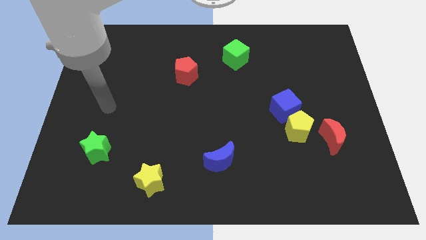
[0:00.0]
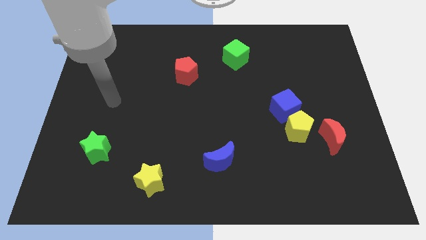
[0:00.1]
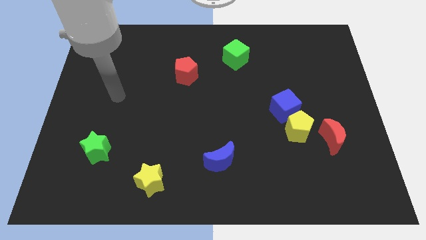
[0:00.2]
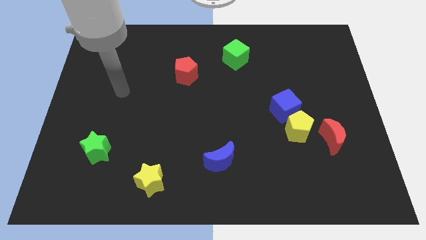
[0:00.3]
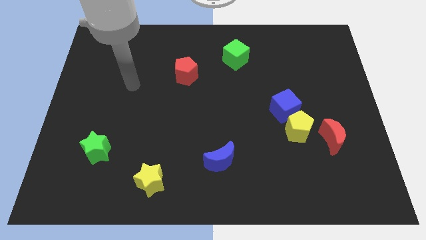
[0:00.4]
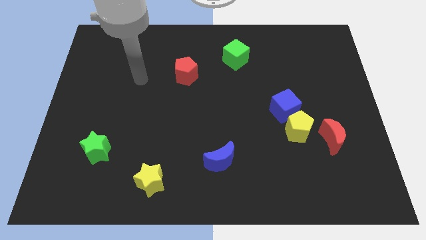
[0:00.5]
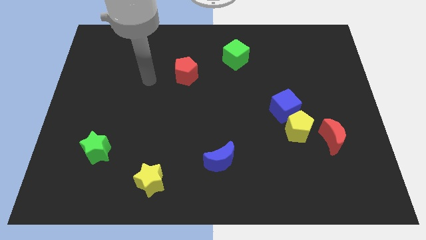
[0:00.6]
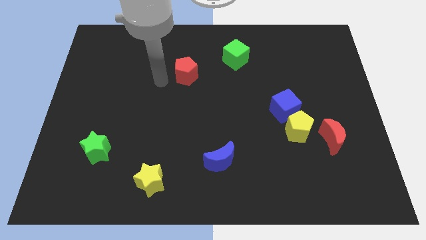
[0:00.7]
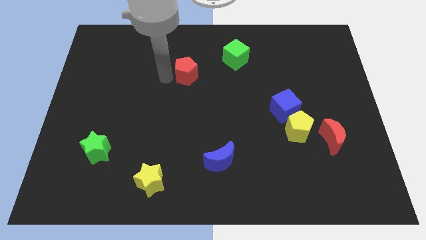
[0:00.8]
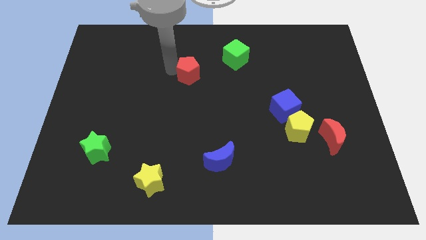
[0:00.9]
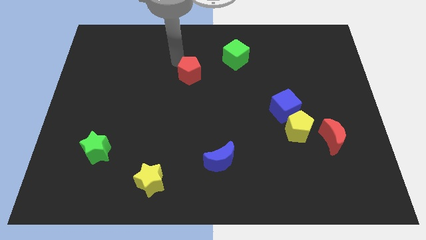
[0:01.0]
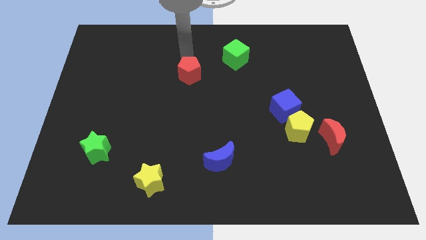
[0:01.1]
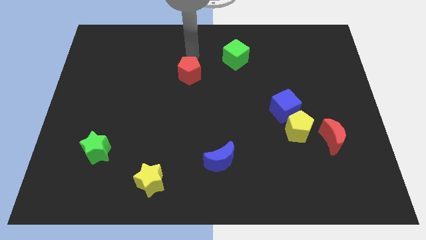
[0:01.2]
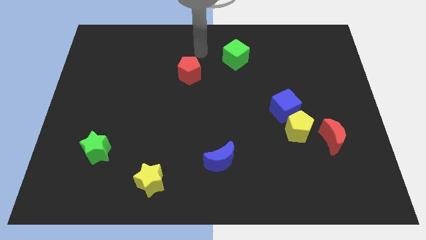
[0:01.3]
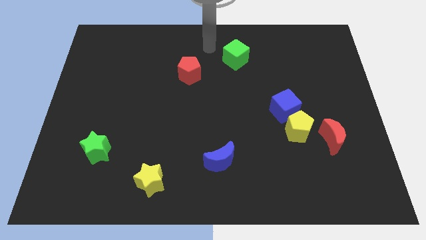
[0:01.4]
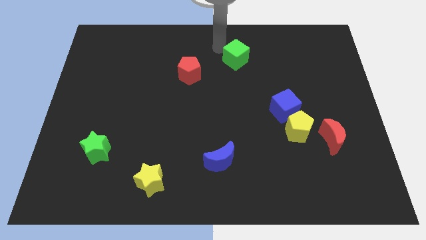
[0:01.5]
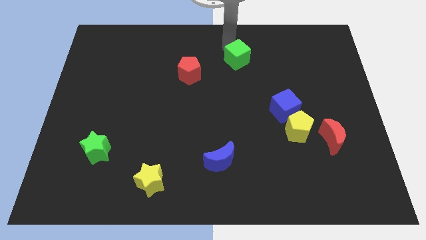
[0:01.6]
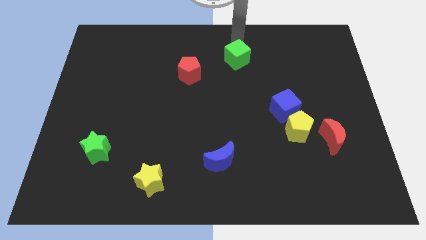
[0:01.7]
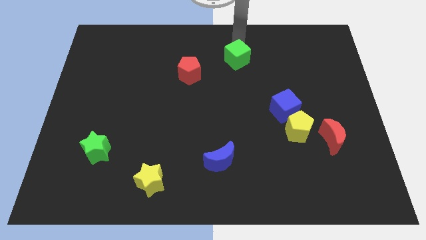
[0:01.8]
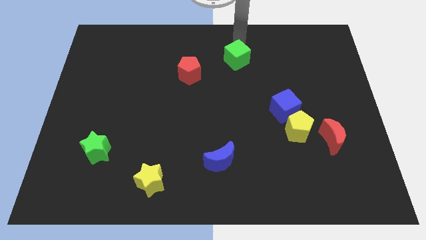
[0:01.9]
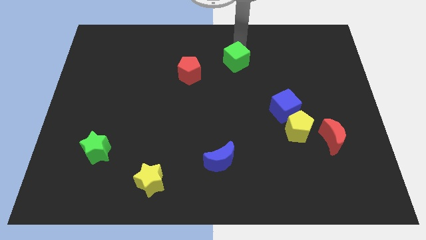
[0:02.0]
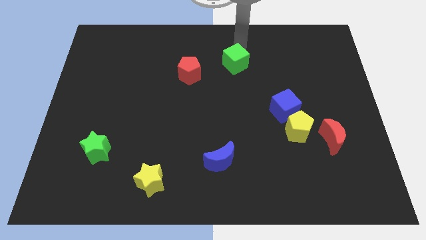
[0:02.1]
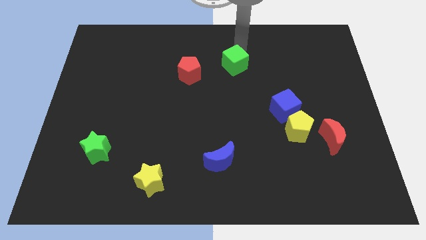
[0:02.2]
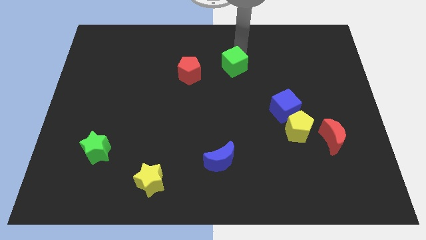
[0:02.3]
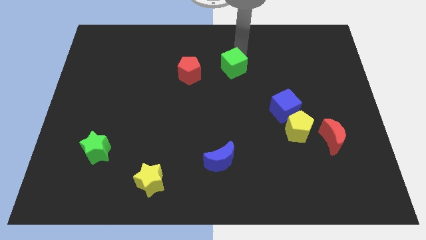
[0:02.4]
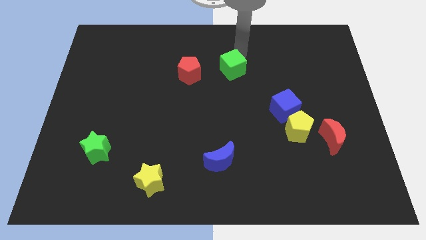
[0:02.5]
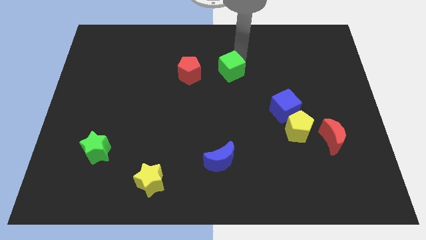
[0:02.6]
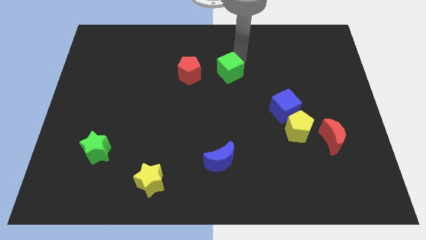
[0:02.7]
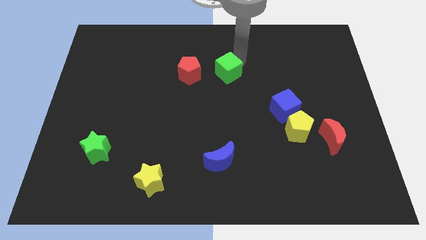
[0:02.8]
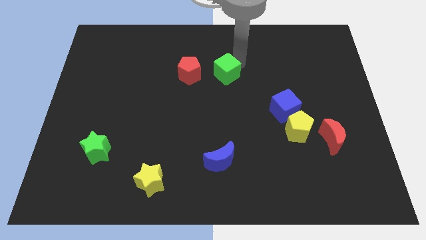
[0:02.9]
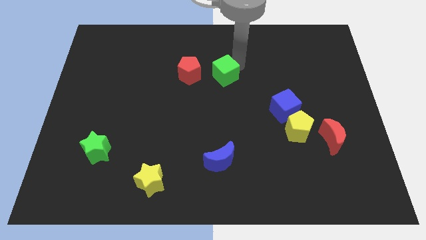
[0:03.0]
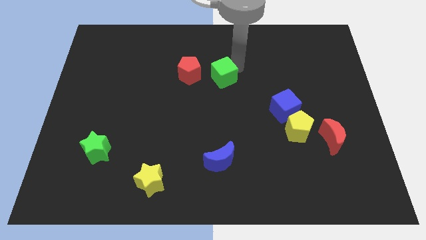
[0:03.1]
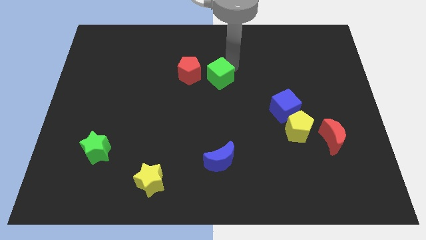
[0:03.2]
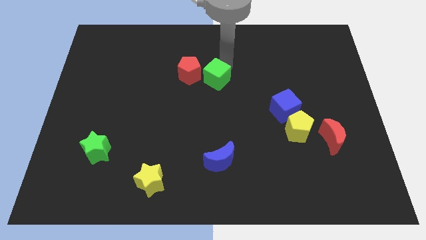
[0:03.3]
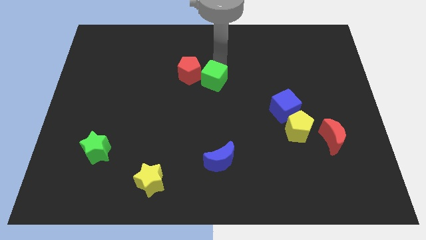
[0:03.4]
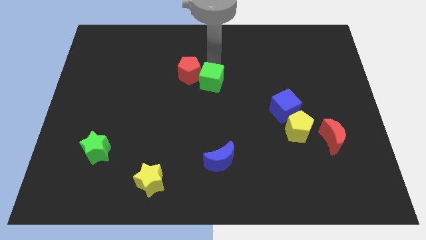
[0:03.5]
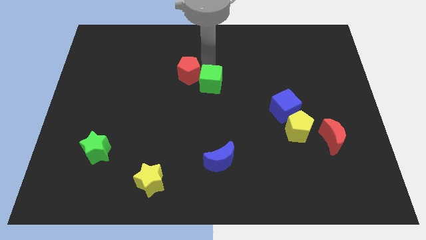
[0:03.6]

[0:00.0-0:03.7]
push the green cube slightly down

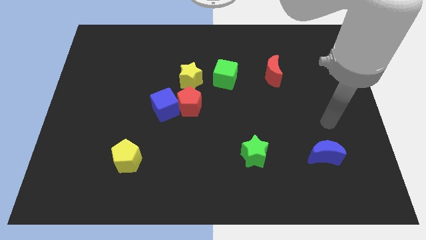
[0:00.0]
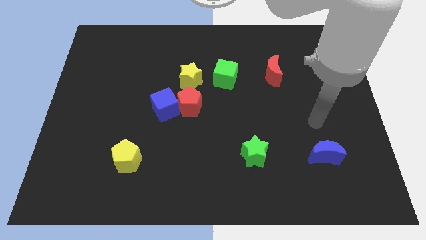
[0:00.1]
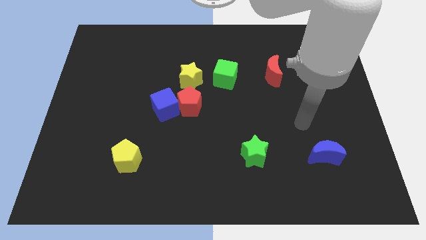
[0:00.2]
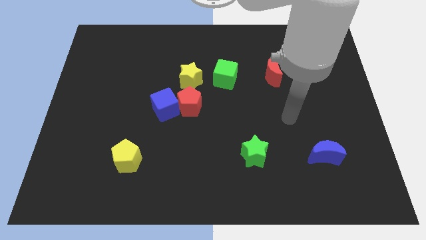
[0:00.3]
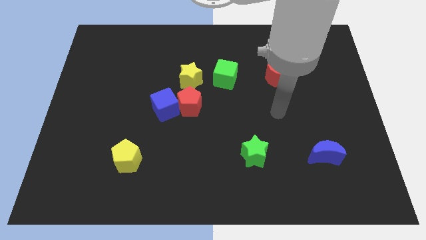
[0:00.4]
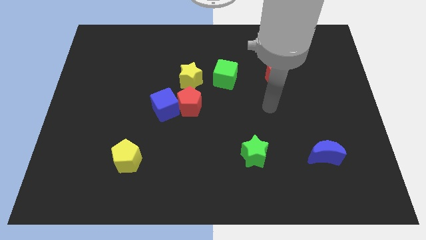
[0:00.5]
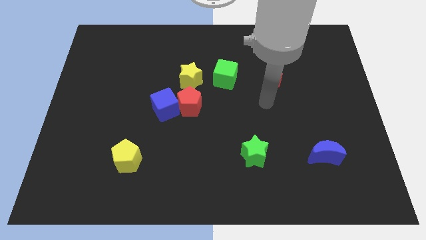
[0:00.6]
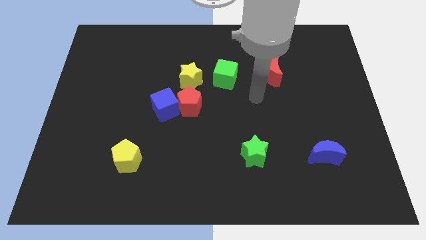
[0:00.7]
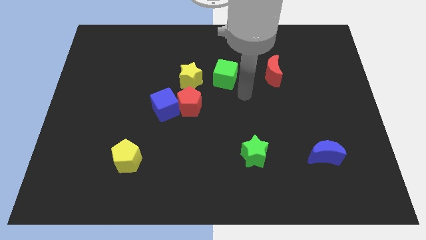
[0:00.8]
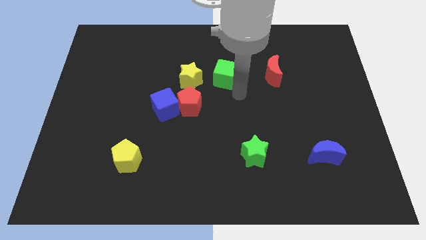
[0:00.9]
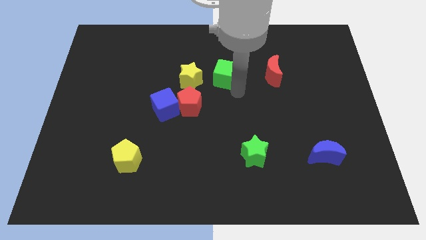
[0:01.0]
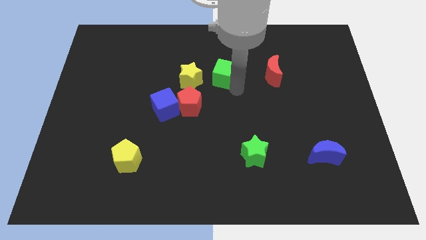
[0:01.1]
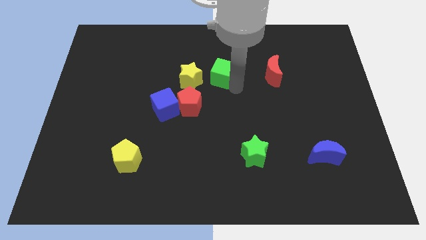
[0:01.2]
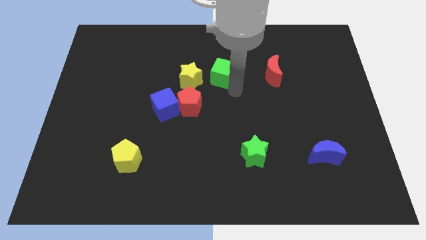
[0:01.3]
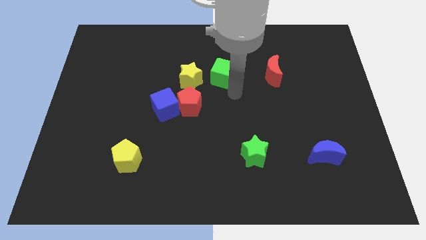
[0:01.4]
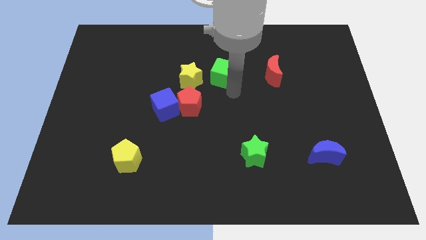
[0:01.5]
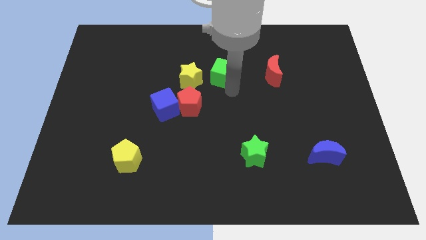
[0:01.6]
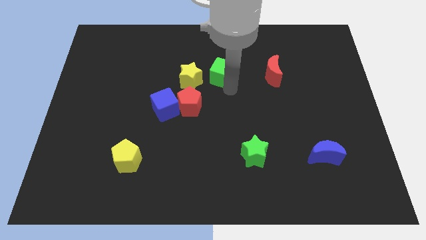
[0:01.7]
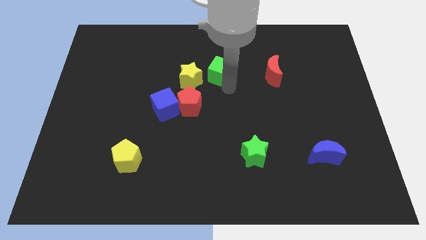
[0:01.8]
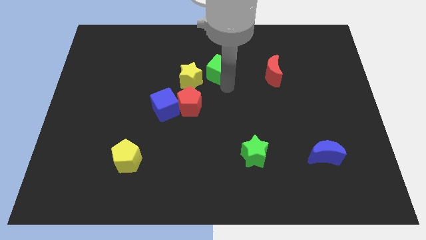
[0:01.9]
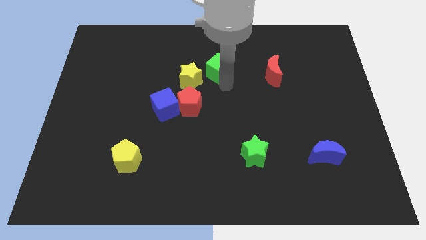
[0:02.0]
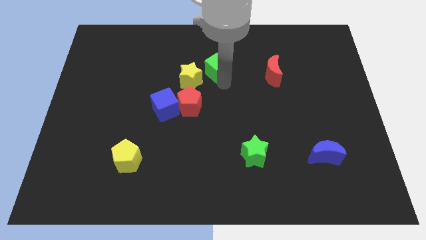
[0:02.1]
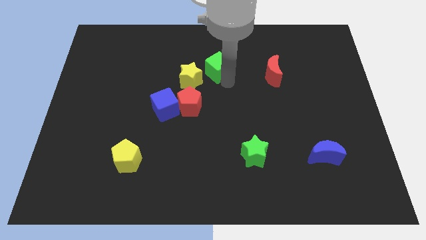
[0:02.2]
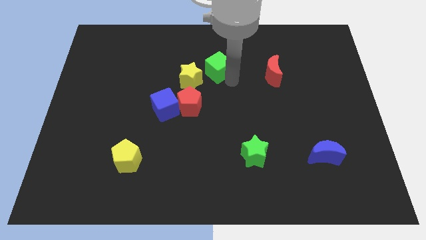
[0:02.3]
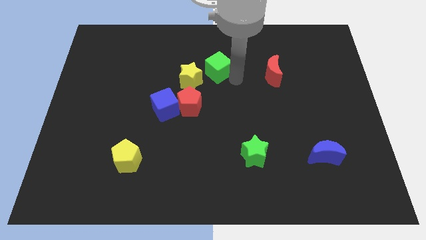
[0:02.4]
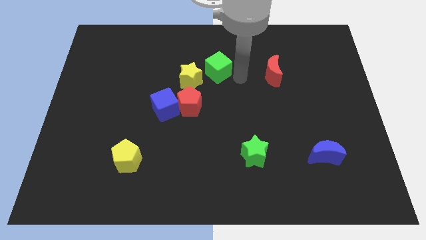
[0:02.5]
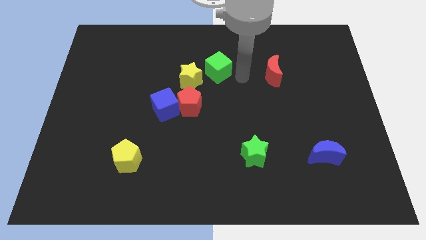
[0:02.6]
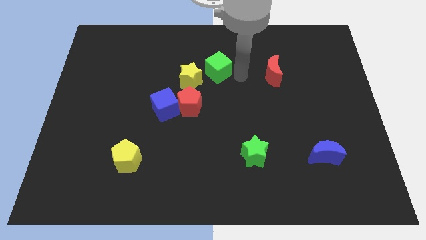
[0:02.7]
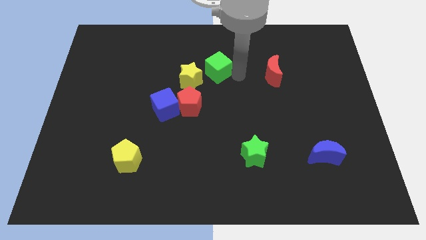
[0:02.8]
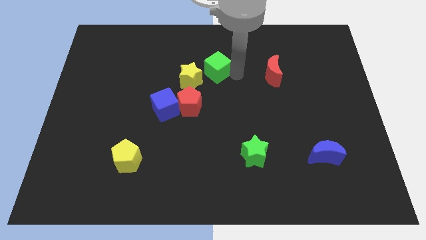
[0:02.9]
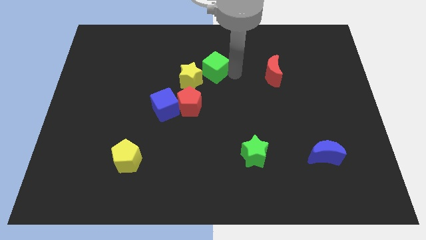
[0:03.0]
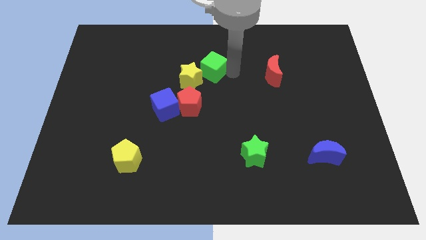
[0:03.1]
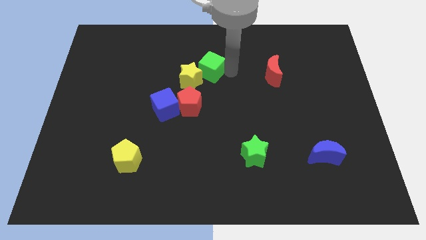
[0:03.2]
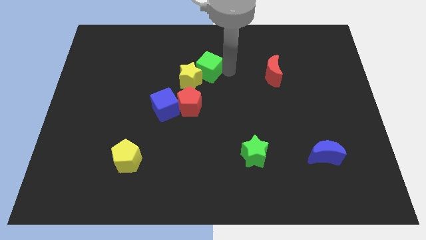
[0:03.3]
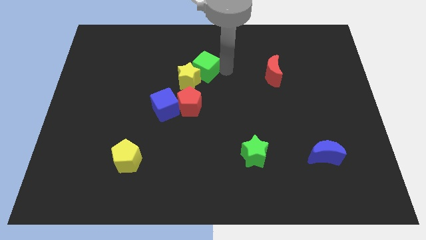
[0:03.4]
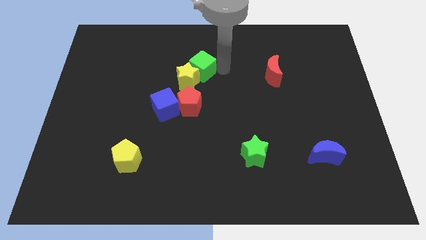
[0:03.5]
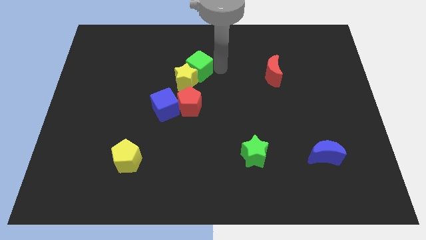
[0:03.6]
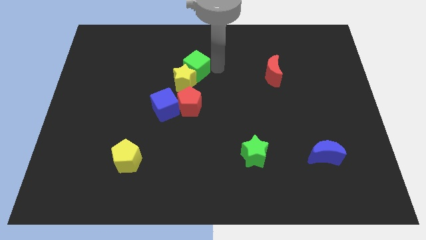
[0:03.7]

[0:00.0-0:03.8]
slide the green cube to the left a little

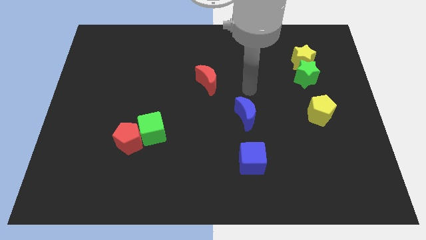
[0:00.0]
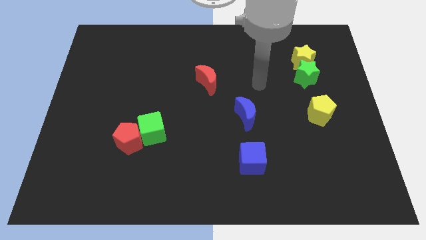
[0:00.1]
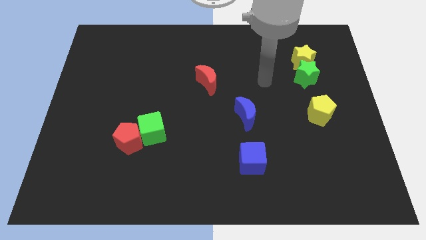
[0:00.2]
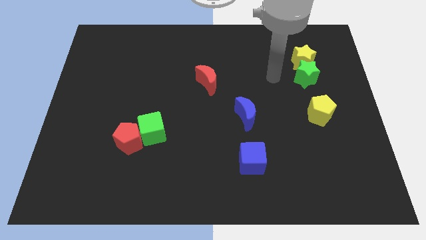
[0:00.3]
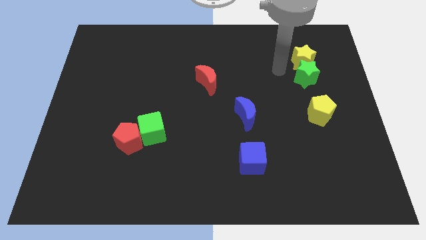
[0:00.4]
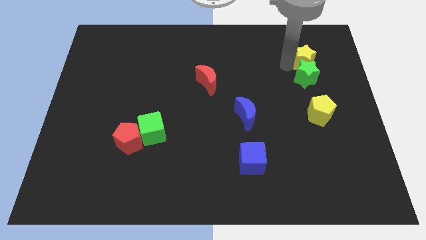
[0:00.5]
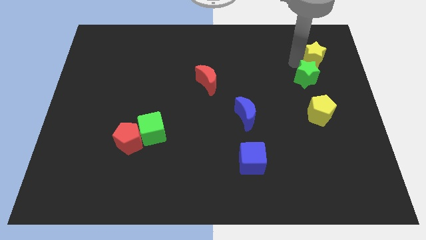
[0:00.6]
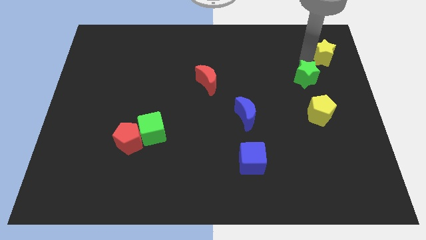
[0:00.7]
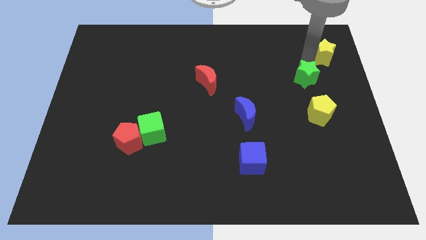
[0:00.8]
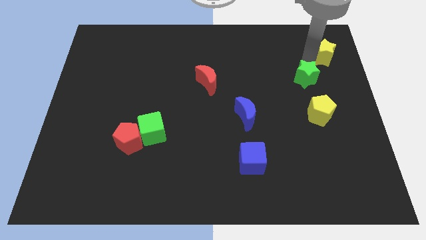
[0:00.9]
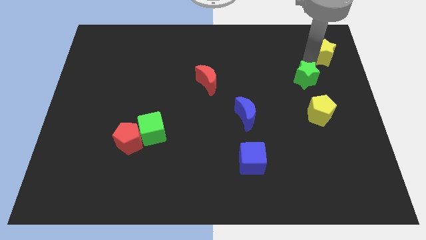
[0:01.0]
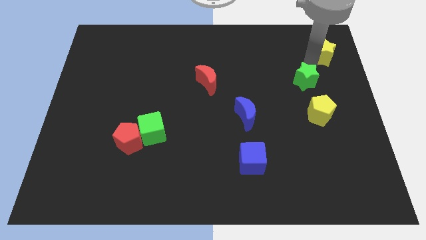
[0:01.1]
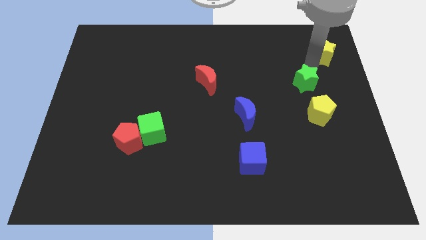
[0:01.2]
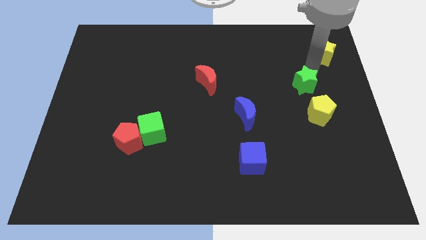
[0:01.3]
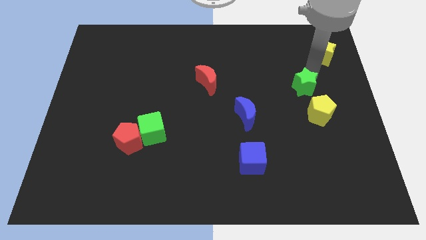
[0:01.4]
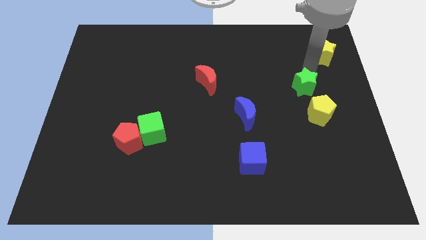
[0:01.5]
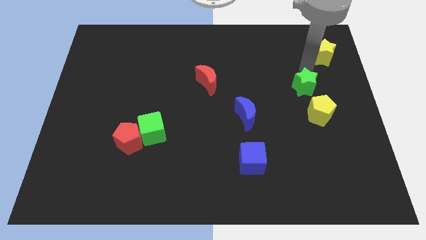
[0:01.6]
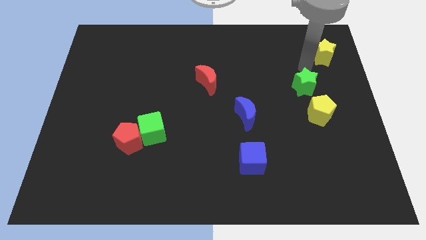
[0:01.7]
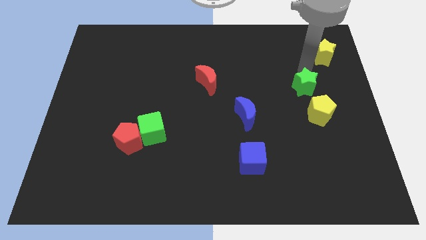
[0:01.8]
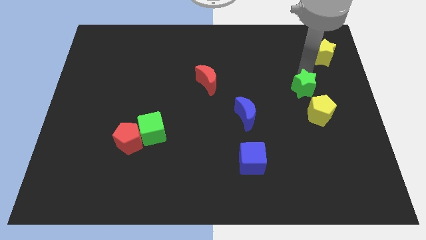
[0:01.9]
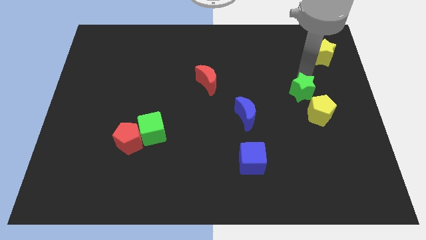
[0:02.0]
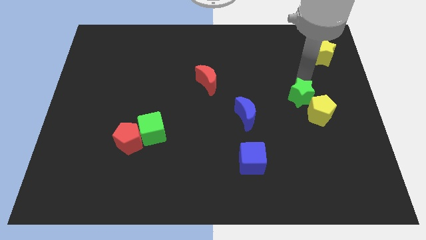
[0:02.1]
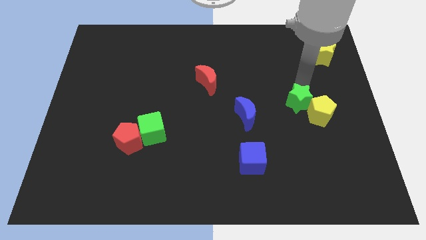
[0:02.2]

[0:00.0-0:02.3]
slightly slide the green star downwards
